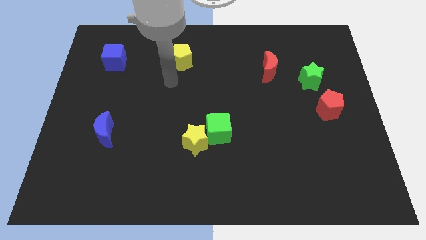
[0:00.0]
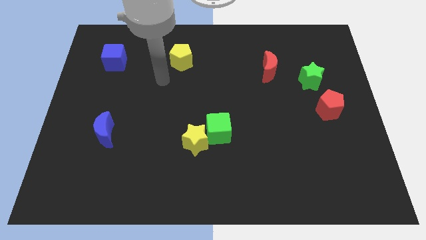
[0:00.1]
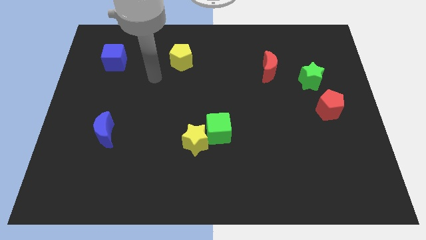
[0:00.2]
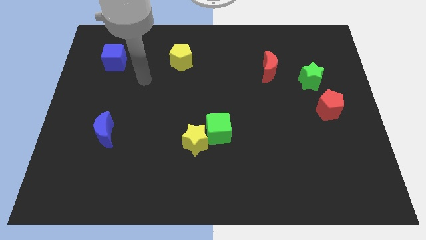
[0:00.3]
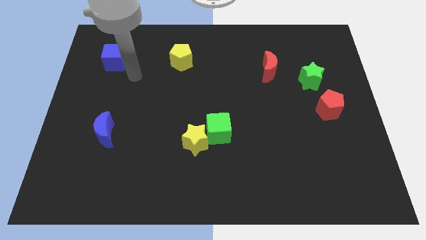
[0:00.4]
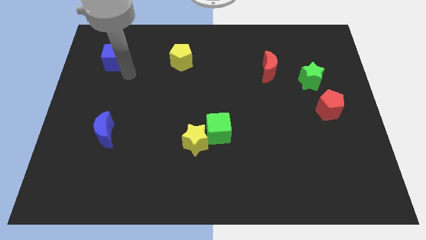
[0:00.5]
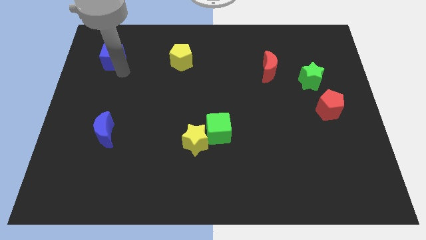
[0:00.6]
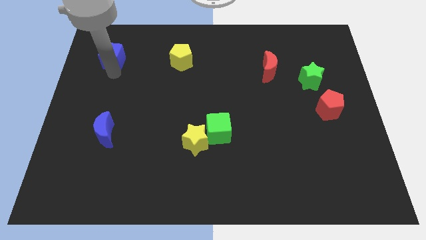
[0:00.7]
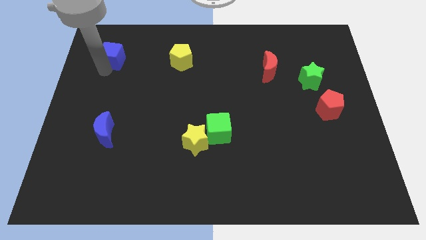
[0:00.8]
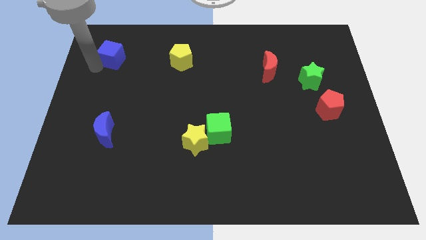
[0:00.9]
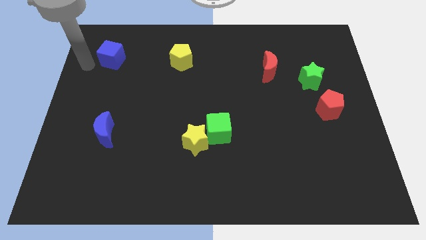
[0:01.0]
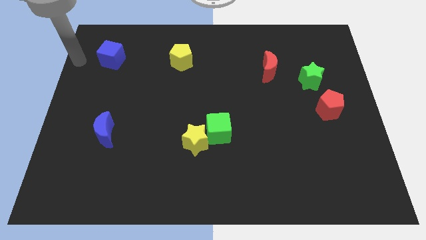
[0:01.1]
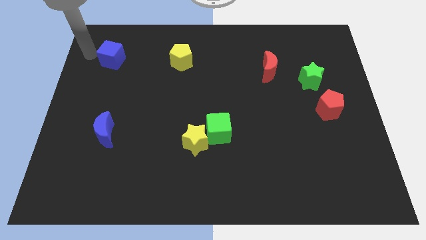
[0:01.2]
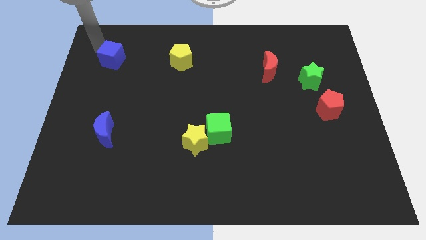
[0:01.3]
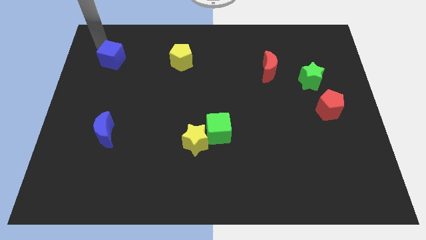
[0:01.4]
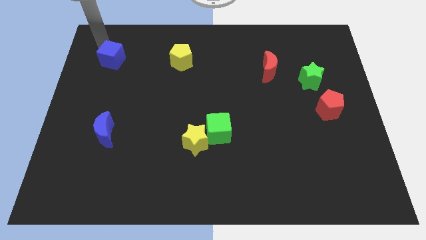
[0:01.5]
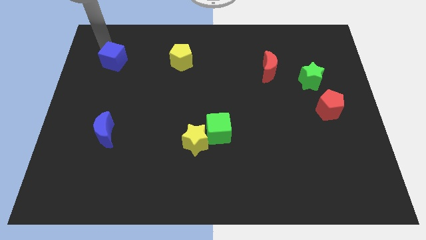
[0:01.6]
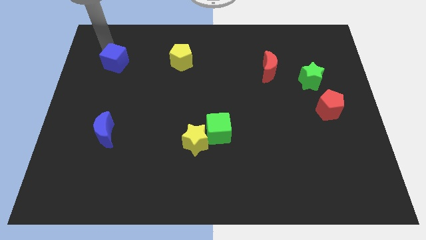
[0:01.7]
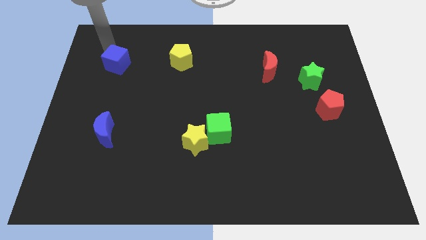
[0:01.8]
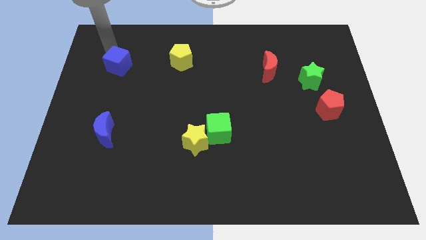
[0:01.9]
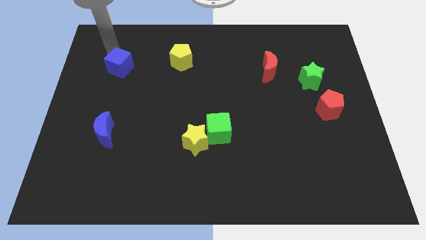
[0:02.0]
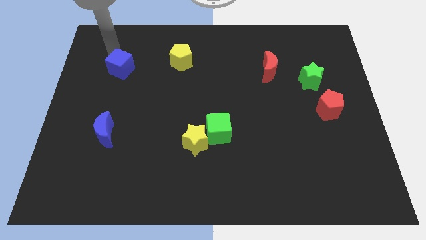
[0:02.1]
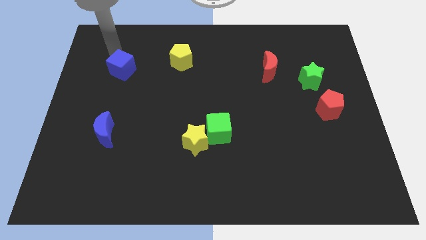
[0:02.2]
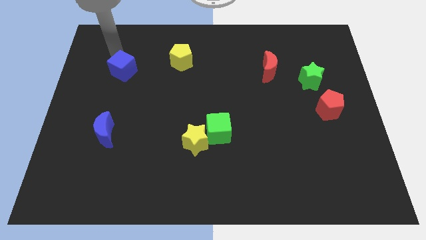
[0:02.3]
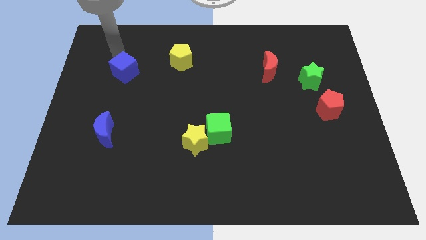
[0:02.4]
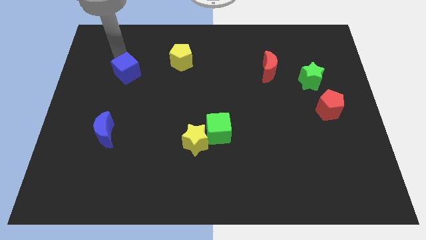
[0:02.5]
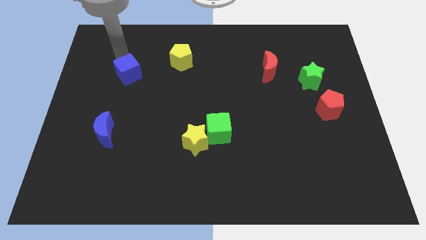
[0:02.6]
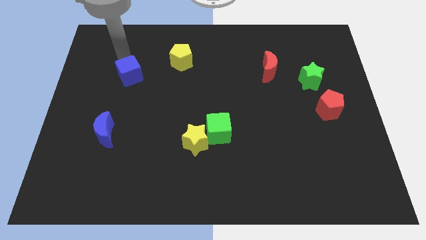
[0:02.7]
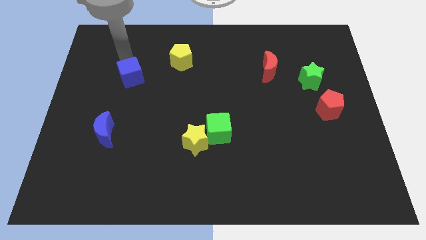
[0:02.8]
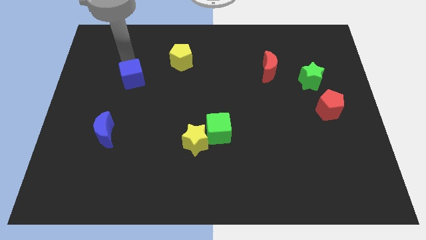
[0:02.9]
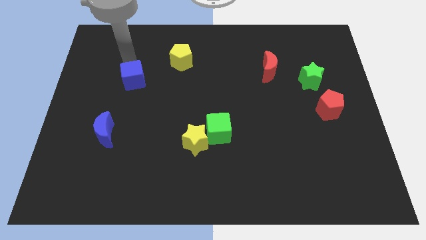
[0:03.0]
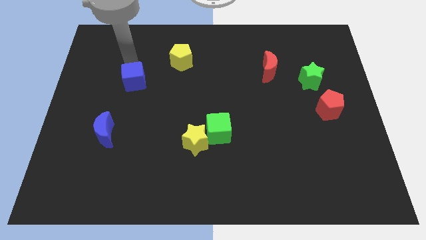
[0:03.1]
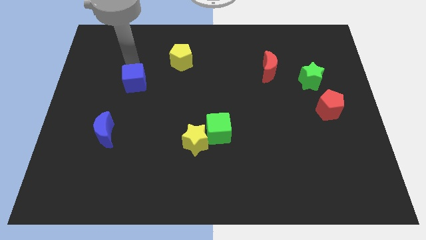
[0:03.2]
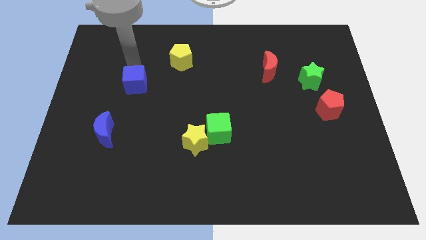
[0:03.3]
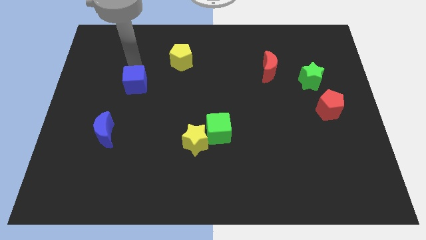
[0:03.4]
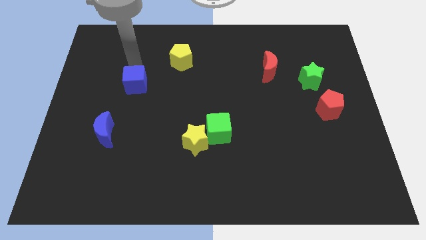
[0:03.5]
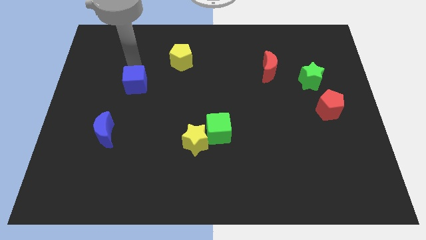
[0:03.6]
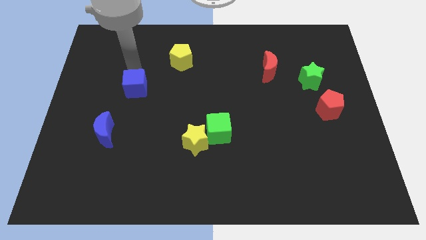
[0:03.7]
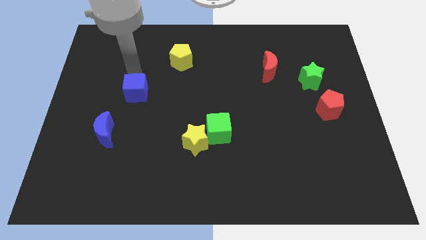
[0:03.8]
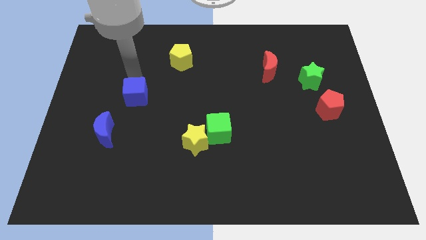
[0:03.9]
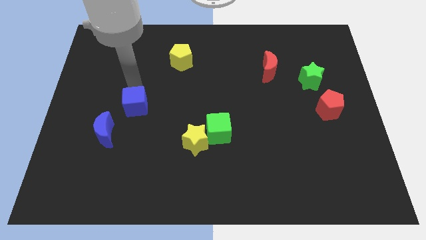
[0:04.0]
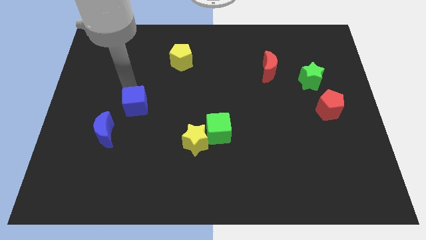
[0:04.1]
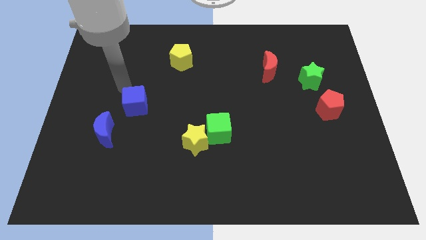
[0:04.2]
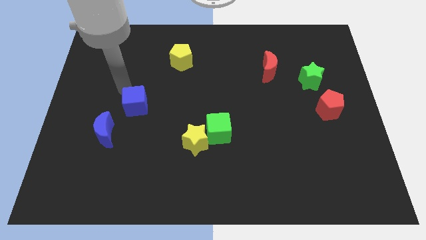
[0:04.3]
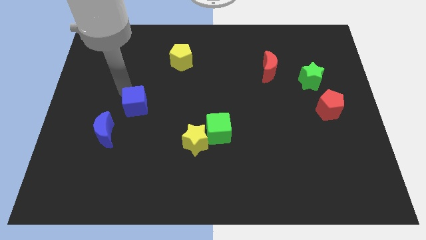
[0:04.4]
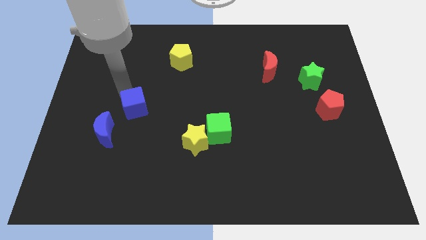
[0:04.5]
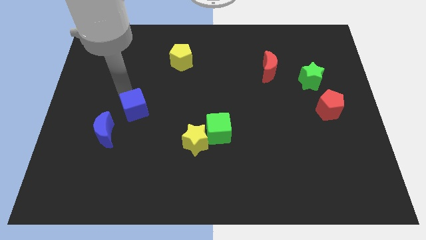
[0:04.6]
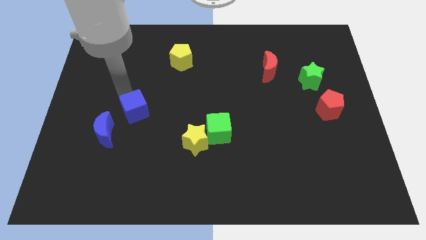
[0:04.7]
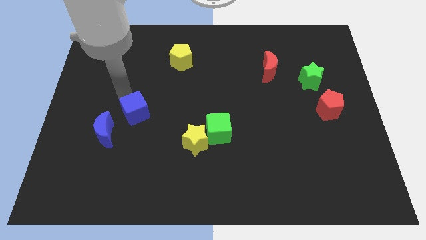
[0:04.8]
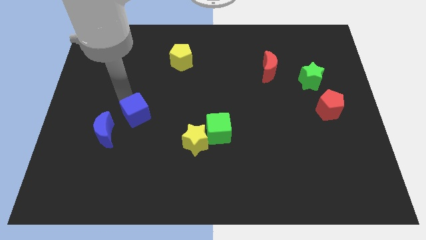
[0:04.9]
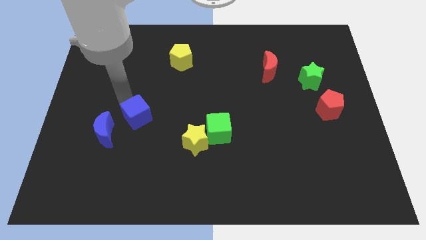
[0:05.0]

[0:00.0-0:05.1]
put the blue cube right of the blue moon

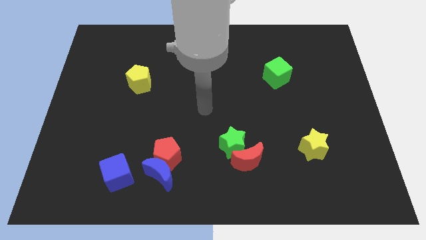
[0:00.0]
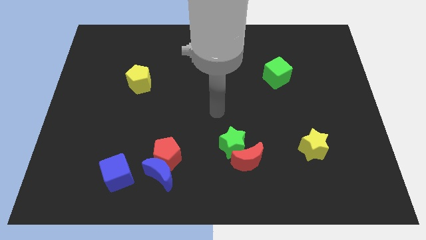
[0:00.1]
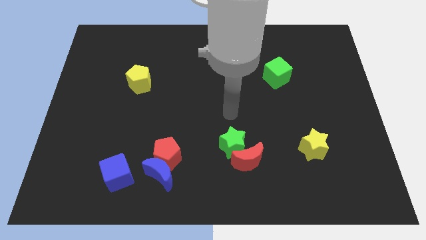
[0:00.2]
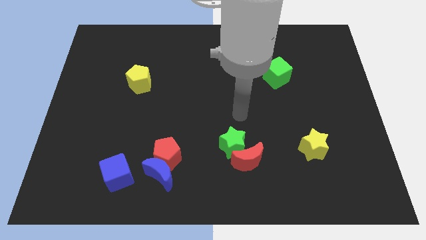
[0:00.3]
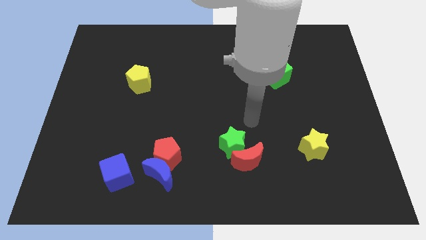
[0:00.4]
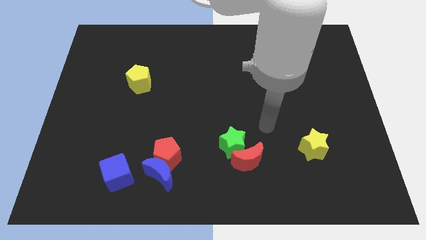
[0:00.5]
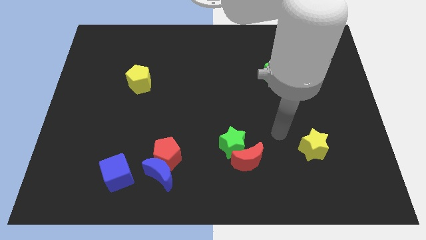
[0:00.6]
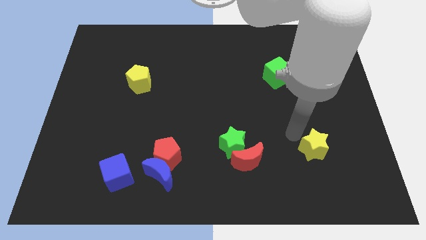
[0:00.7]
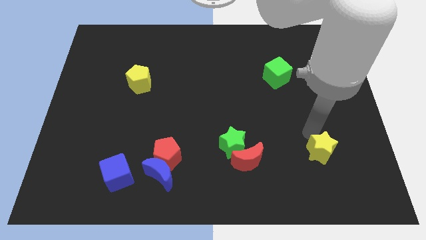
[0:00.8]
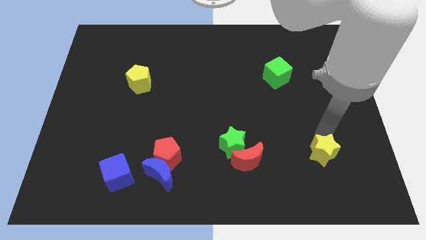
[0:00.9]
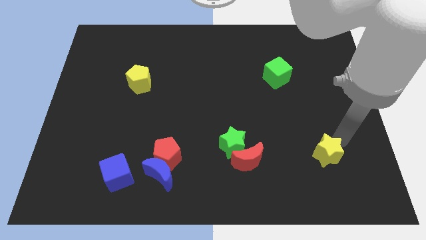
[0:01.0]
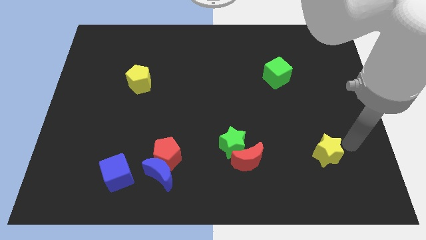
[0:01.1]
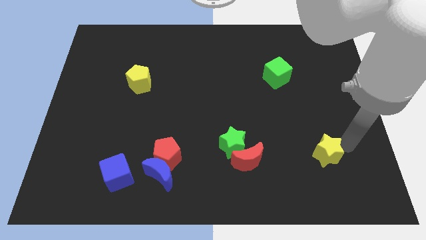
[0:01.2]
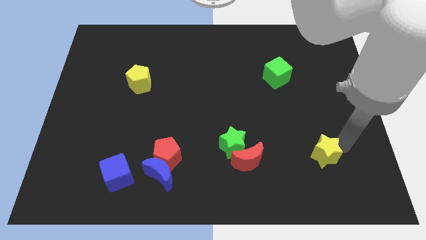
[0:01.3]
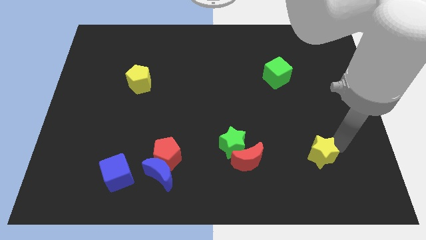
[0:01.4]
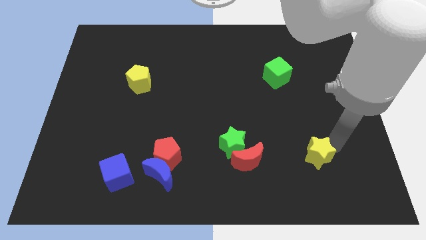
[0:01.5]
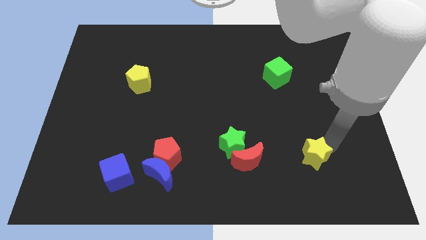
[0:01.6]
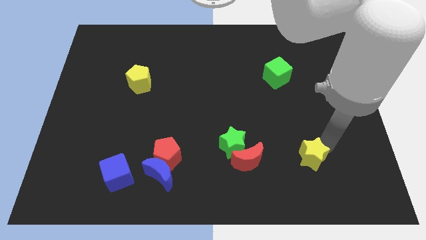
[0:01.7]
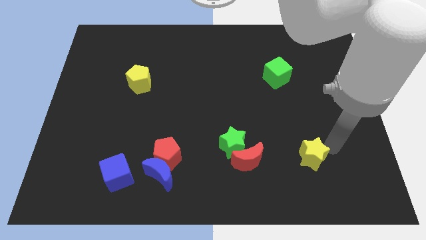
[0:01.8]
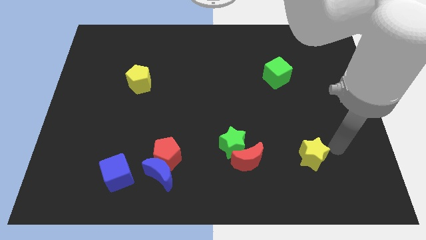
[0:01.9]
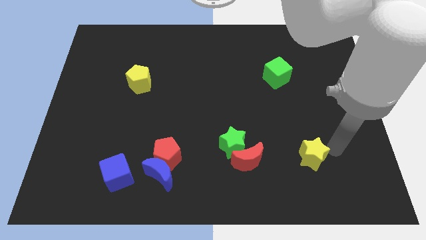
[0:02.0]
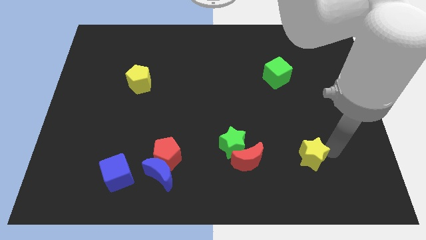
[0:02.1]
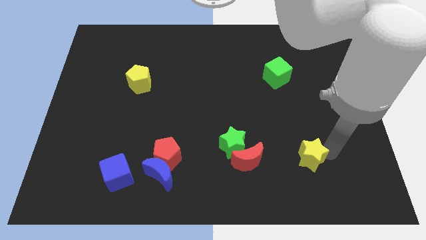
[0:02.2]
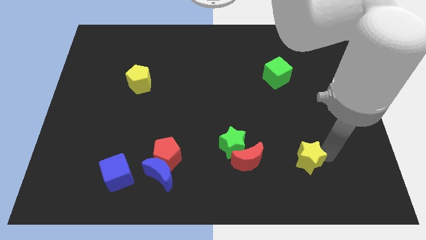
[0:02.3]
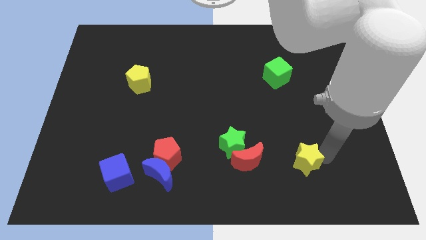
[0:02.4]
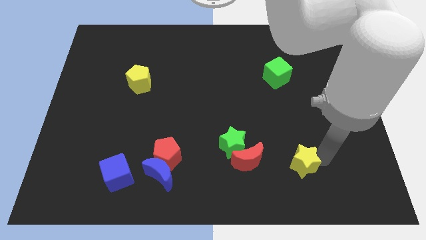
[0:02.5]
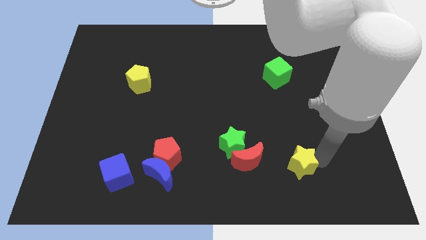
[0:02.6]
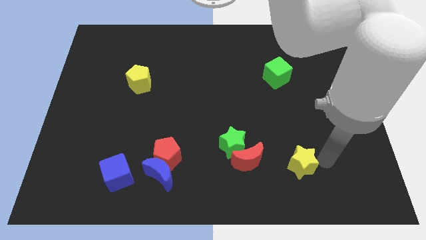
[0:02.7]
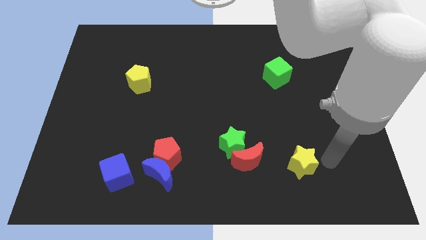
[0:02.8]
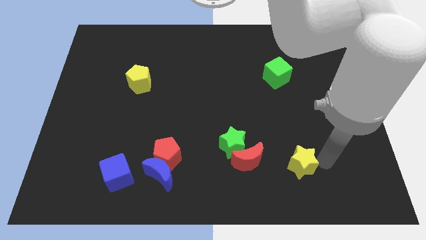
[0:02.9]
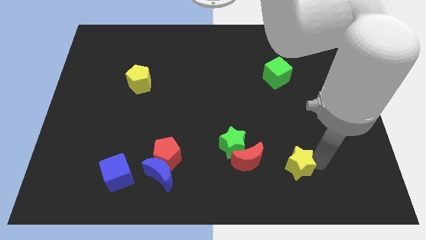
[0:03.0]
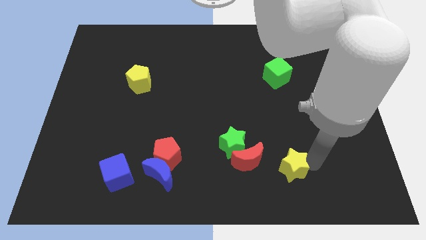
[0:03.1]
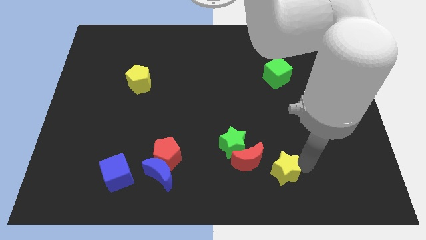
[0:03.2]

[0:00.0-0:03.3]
move the yellow star to the bottom right side of the green star
